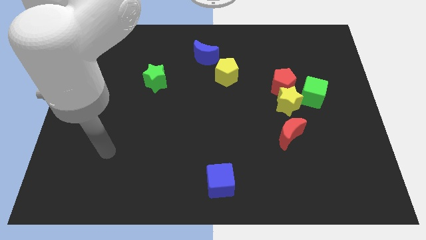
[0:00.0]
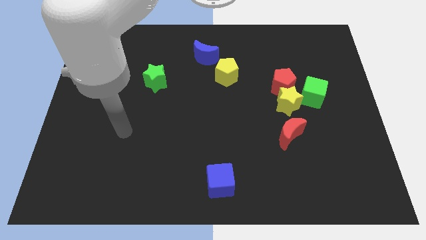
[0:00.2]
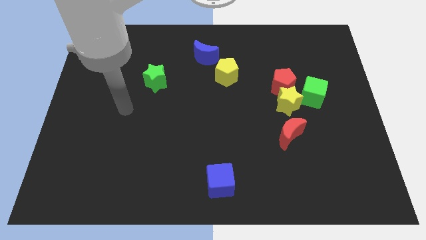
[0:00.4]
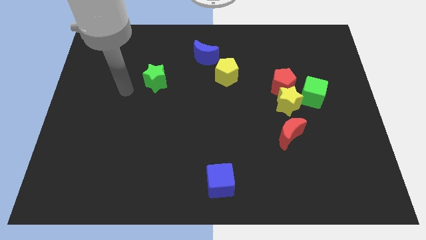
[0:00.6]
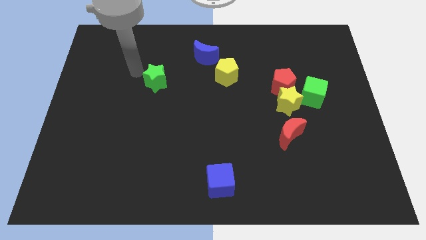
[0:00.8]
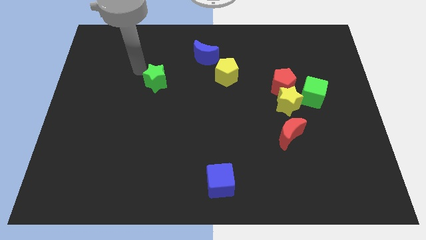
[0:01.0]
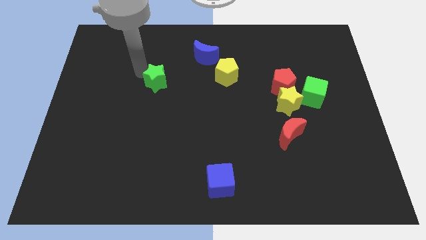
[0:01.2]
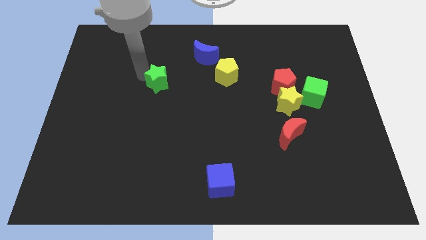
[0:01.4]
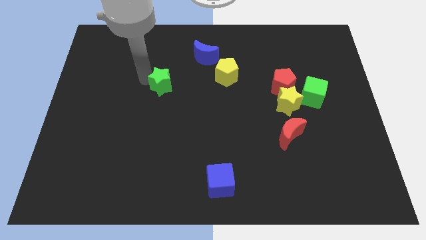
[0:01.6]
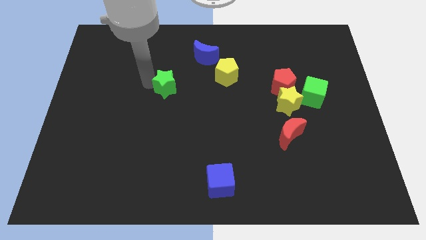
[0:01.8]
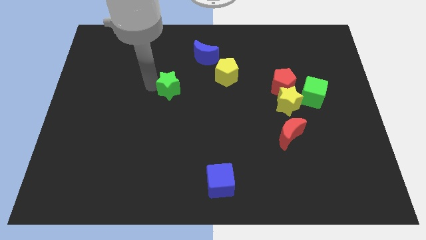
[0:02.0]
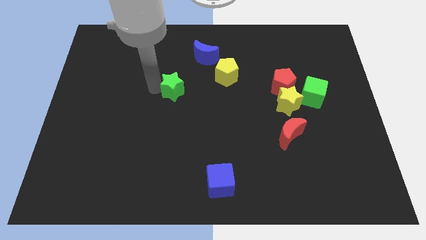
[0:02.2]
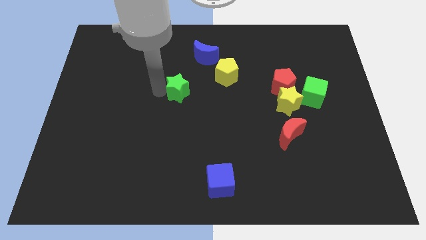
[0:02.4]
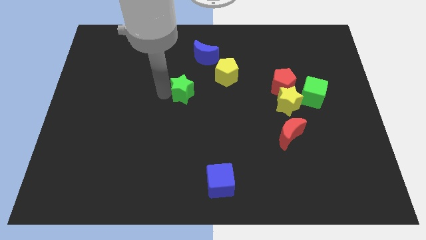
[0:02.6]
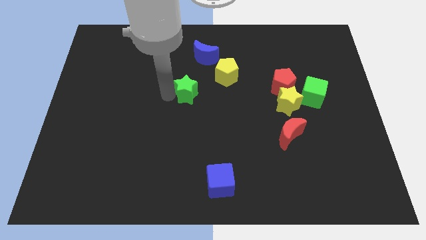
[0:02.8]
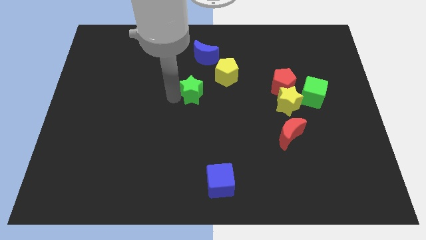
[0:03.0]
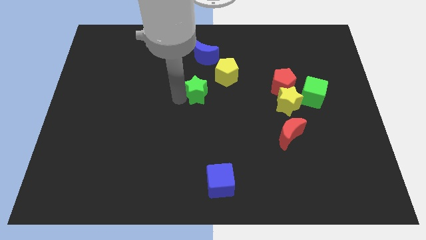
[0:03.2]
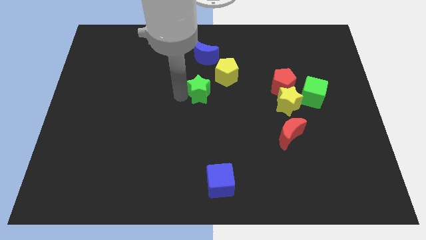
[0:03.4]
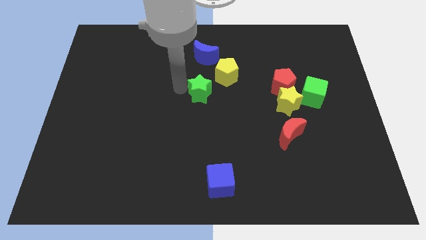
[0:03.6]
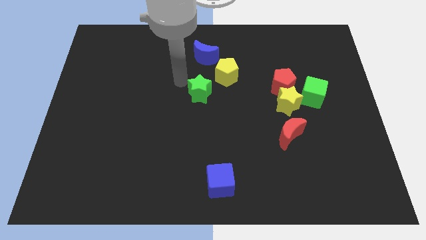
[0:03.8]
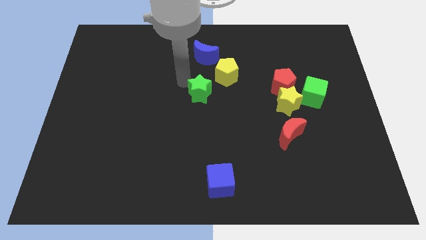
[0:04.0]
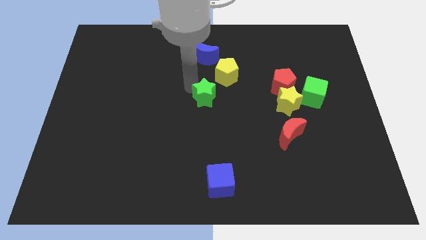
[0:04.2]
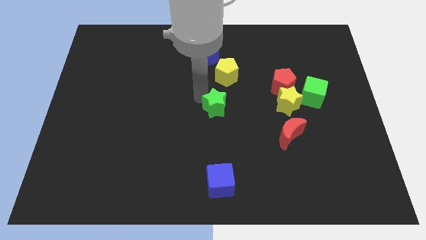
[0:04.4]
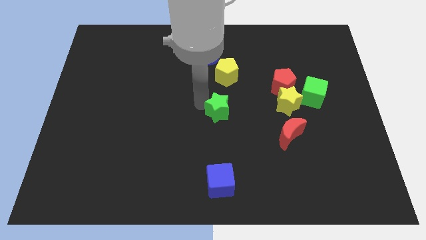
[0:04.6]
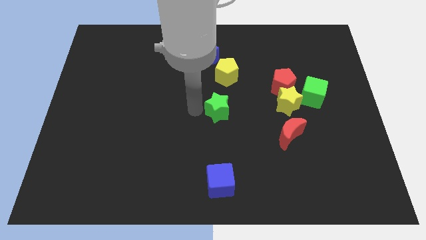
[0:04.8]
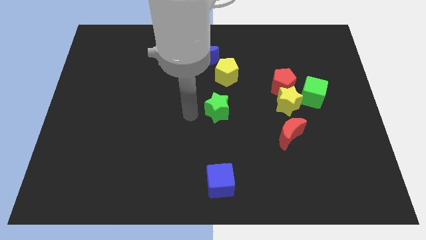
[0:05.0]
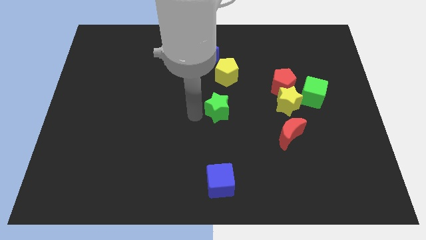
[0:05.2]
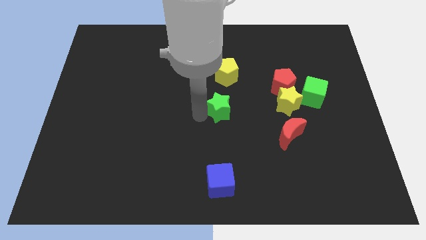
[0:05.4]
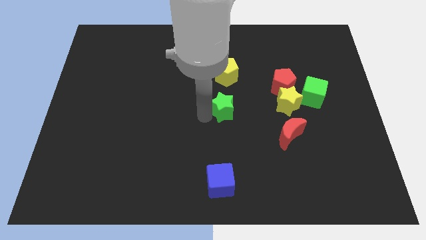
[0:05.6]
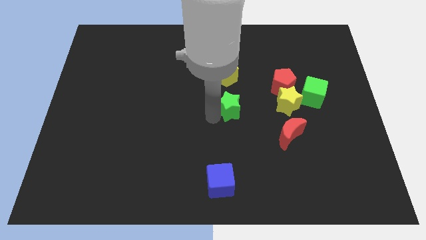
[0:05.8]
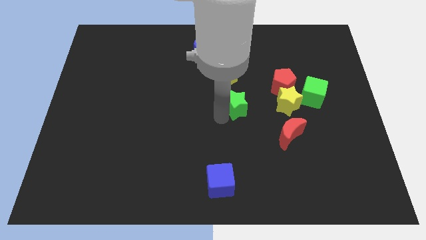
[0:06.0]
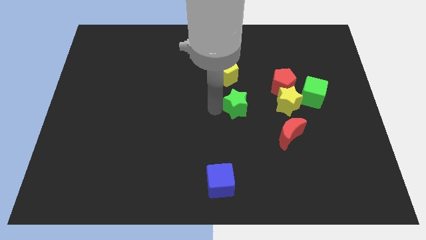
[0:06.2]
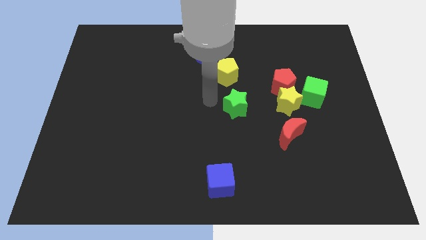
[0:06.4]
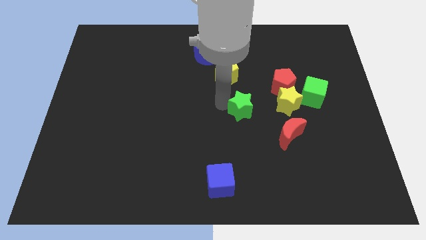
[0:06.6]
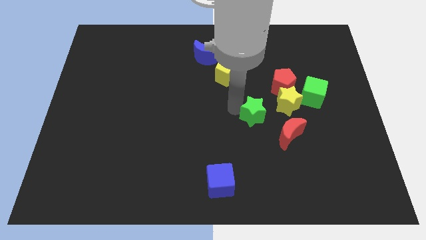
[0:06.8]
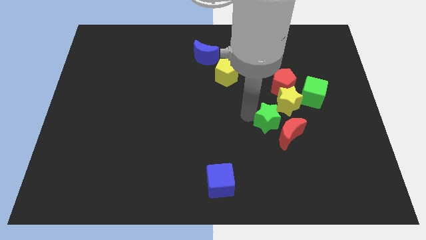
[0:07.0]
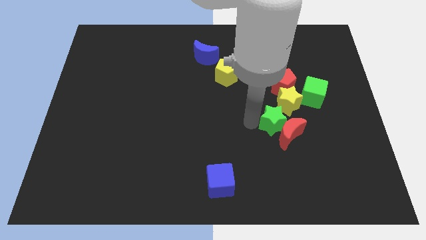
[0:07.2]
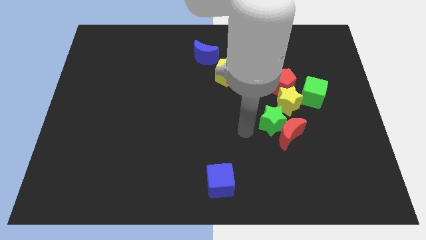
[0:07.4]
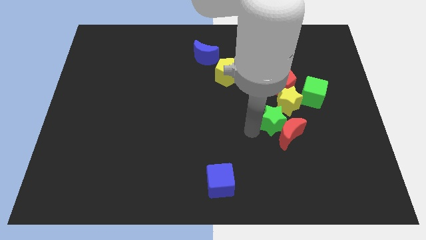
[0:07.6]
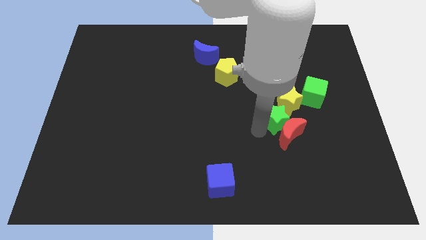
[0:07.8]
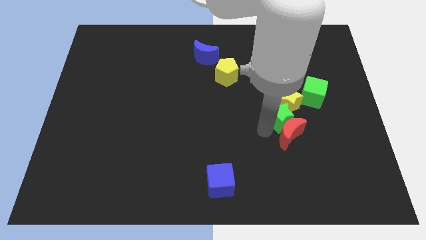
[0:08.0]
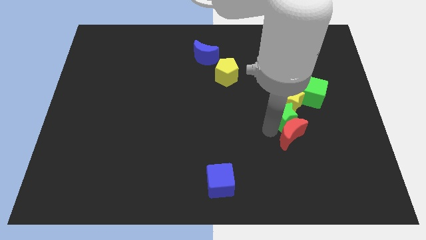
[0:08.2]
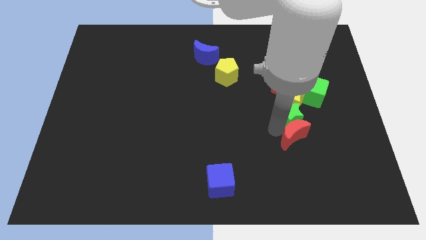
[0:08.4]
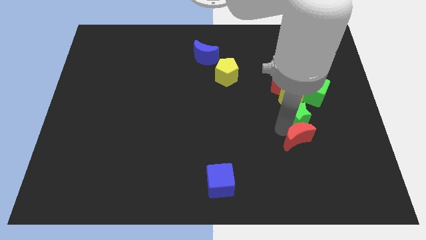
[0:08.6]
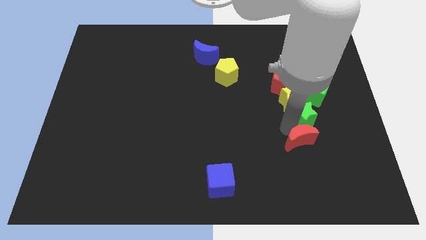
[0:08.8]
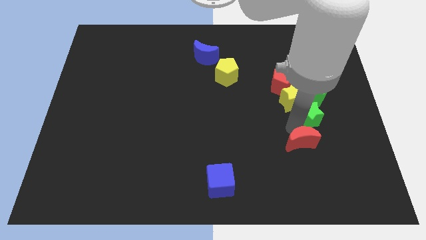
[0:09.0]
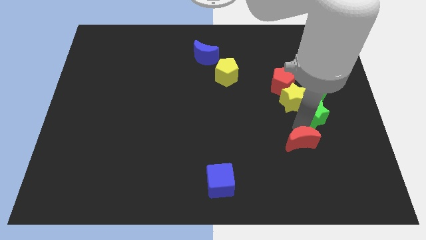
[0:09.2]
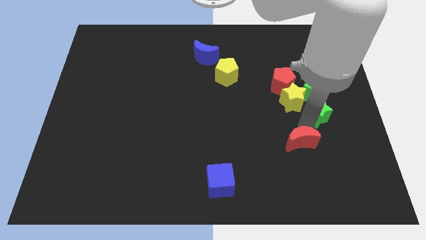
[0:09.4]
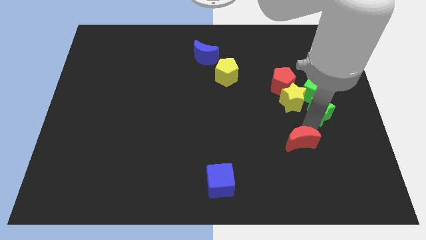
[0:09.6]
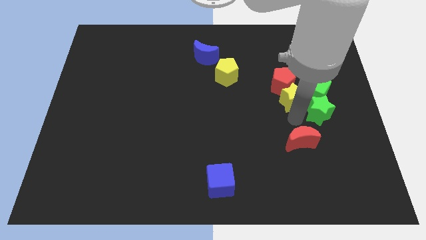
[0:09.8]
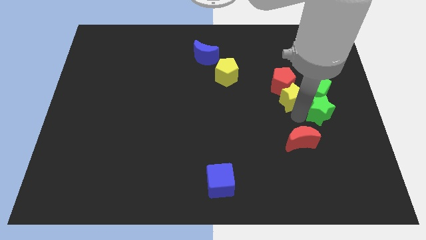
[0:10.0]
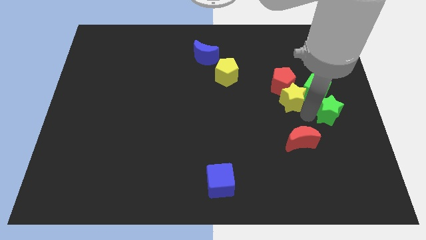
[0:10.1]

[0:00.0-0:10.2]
push the green star to the right side

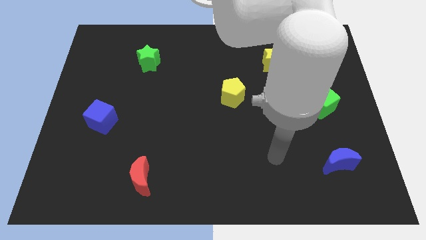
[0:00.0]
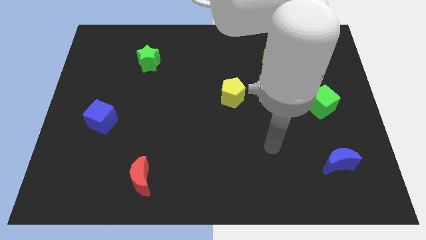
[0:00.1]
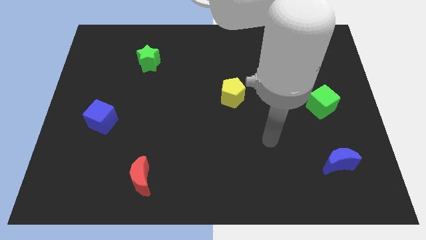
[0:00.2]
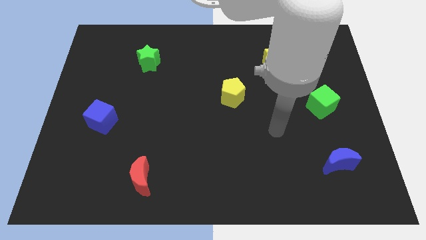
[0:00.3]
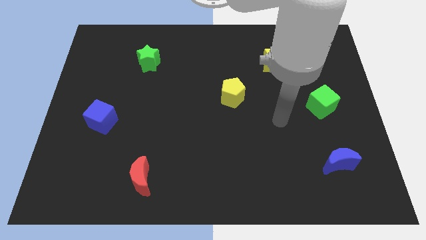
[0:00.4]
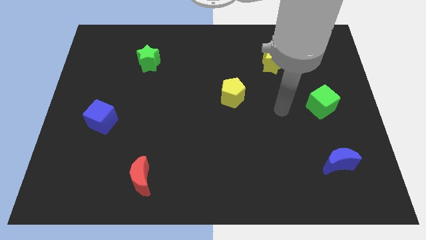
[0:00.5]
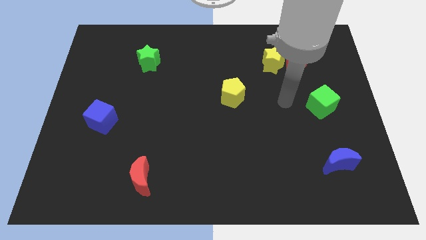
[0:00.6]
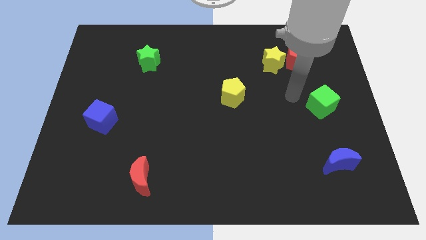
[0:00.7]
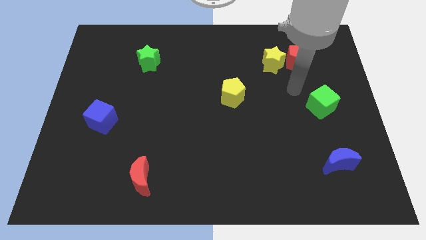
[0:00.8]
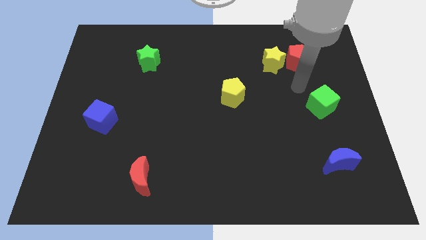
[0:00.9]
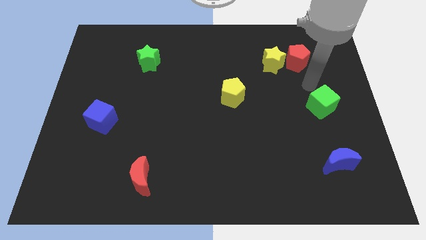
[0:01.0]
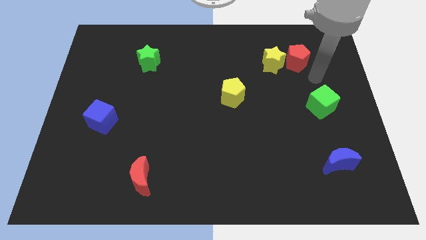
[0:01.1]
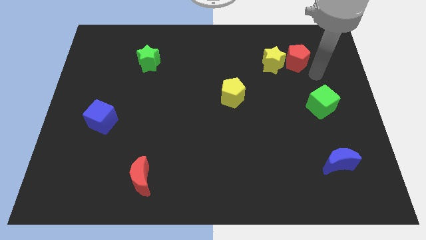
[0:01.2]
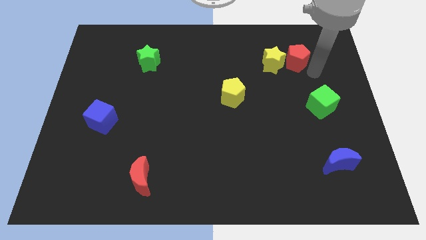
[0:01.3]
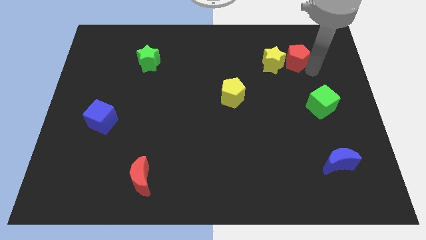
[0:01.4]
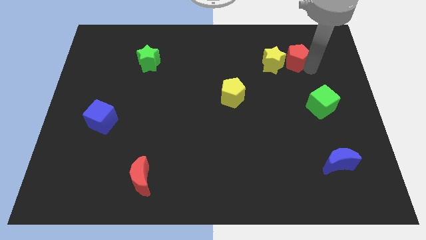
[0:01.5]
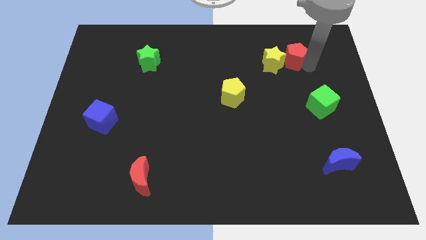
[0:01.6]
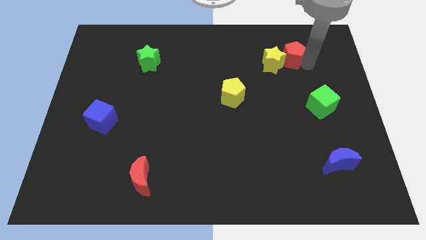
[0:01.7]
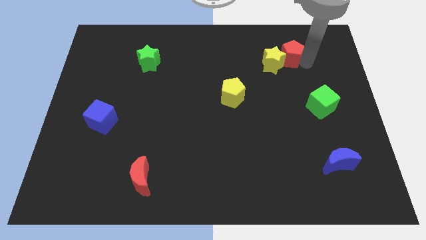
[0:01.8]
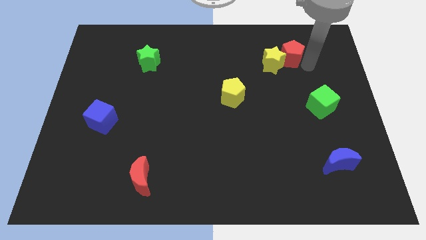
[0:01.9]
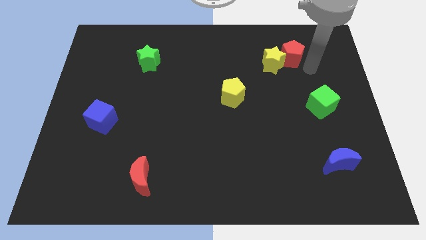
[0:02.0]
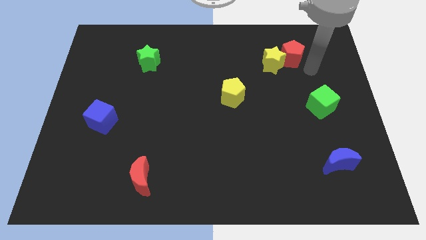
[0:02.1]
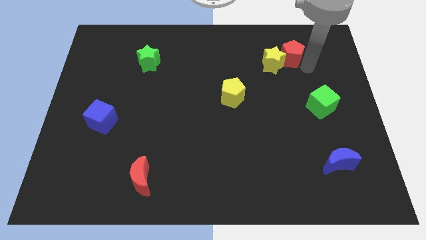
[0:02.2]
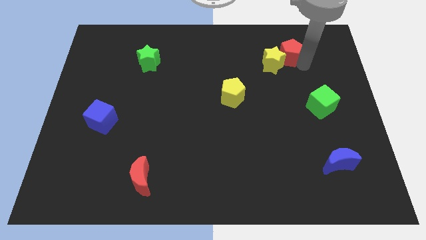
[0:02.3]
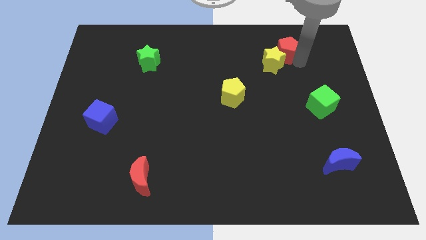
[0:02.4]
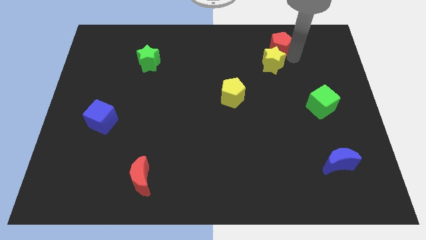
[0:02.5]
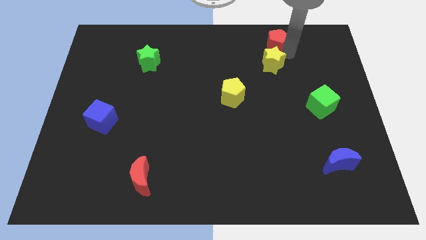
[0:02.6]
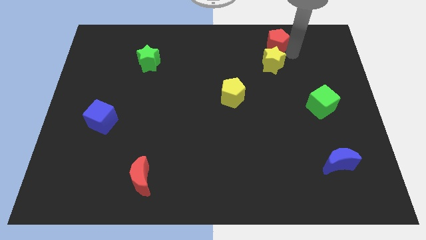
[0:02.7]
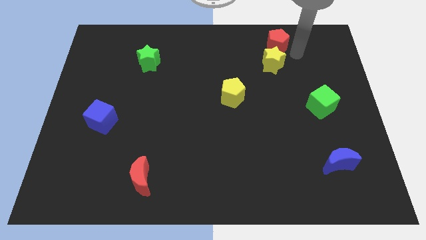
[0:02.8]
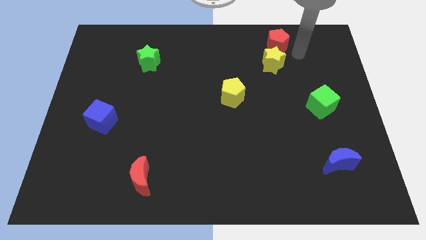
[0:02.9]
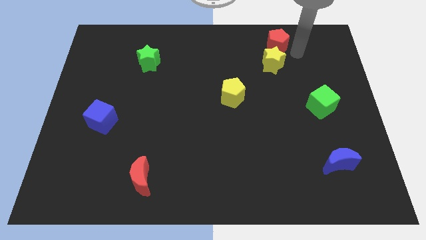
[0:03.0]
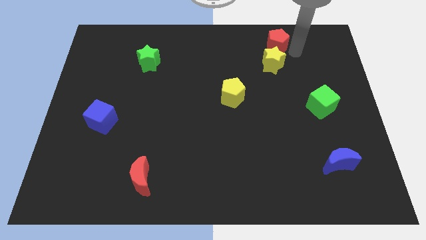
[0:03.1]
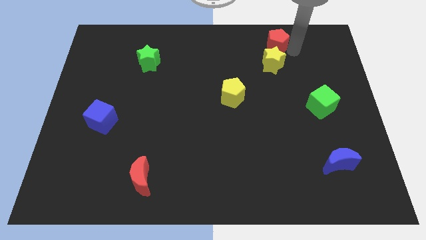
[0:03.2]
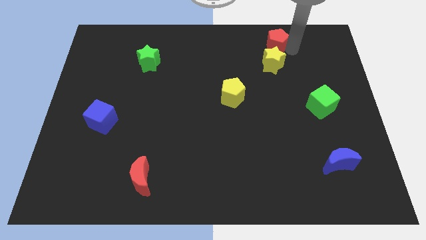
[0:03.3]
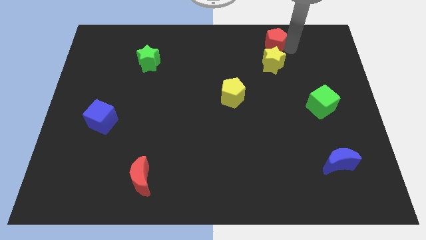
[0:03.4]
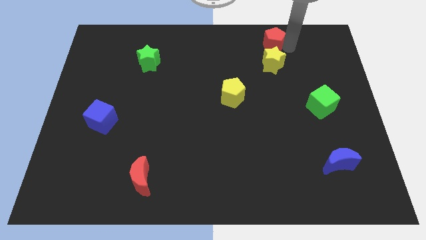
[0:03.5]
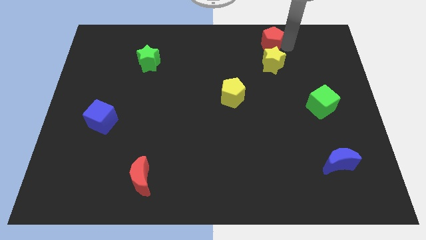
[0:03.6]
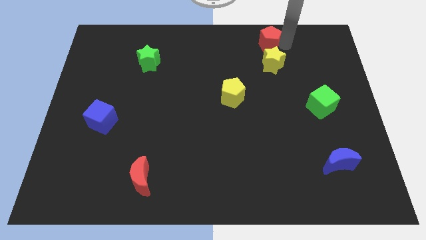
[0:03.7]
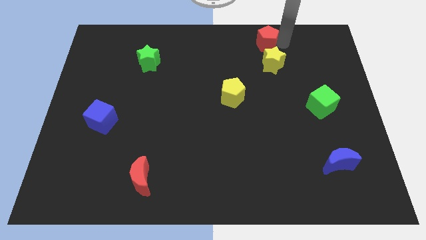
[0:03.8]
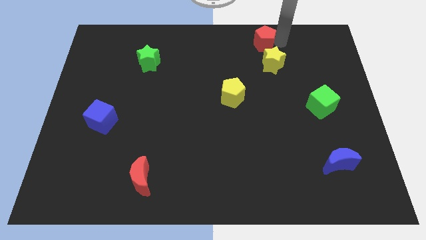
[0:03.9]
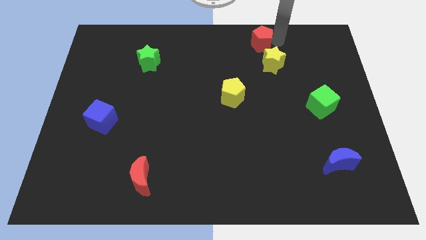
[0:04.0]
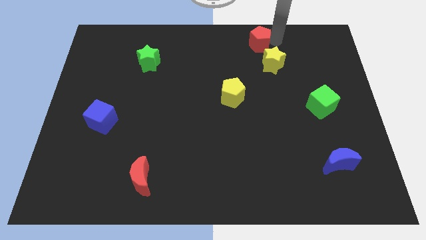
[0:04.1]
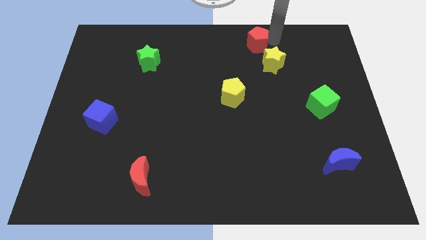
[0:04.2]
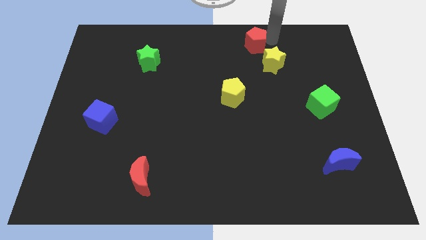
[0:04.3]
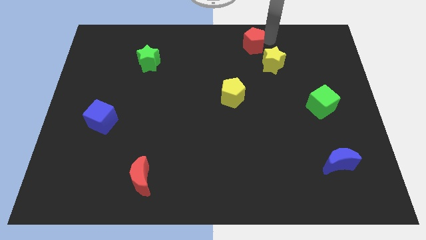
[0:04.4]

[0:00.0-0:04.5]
move the red pentagon to the top side
